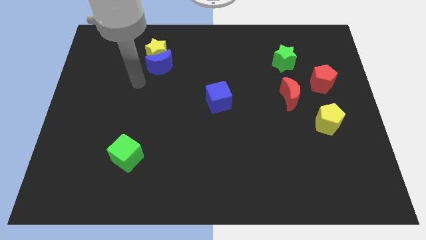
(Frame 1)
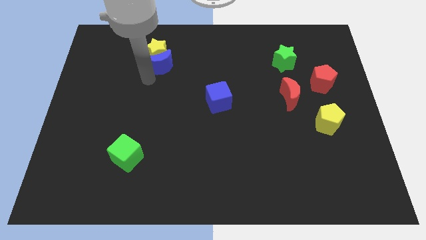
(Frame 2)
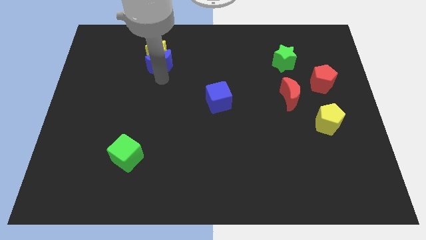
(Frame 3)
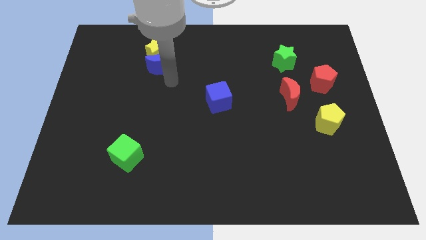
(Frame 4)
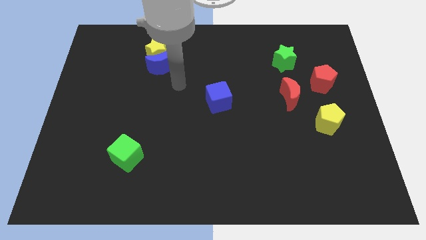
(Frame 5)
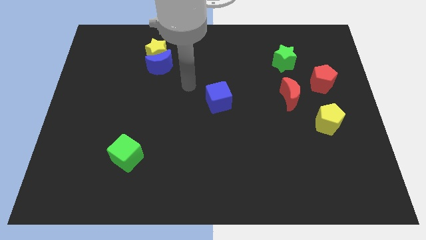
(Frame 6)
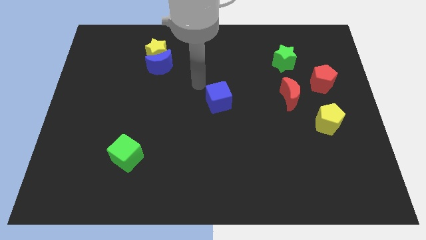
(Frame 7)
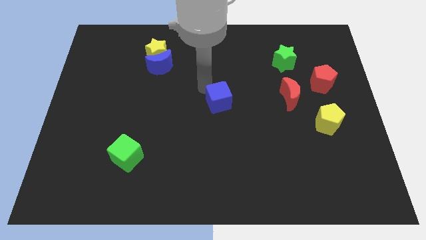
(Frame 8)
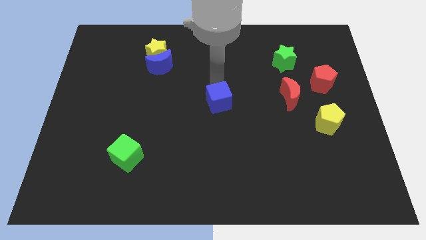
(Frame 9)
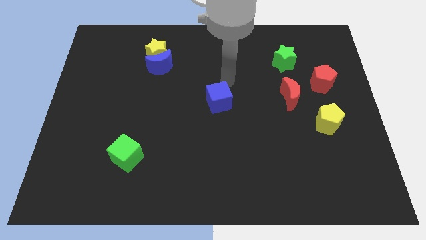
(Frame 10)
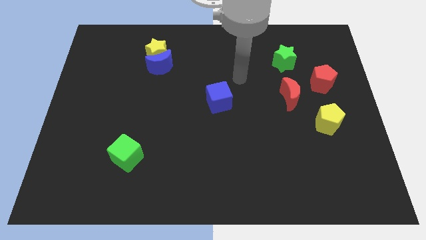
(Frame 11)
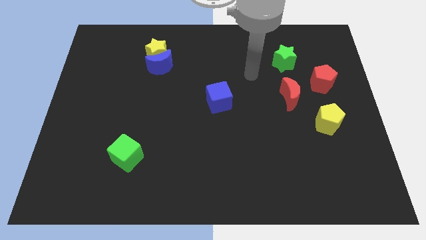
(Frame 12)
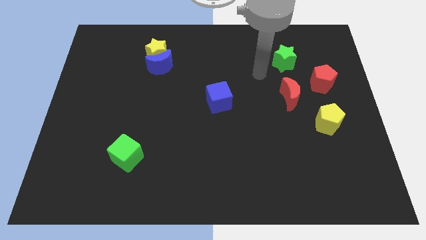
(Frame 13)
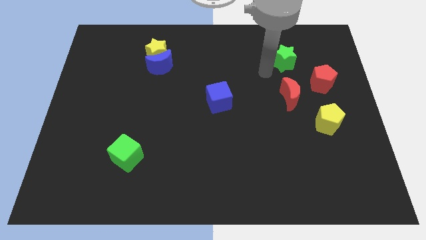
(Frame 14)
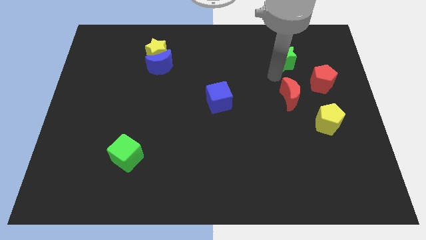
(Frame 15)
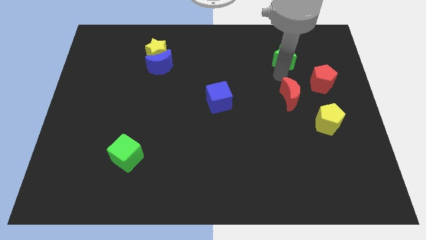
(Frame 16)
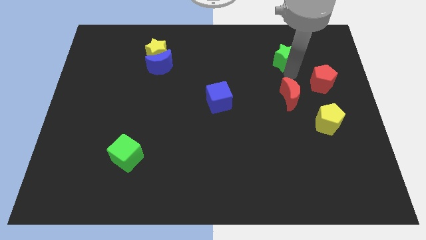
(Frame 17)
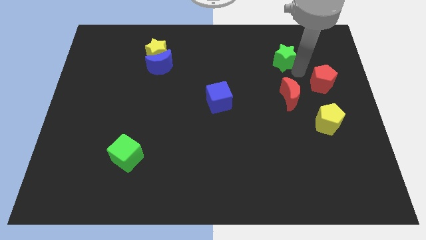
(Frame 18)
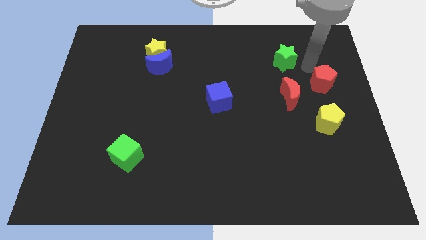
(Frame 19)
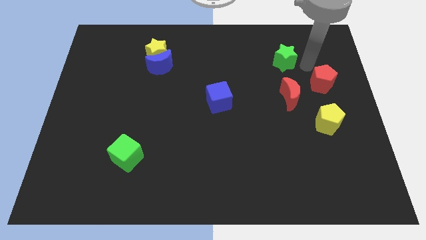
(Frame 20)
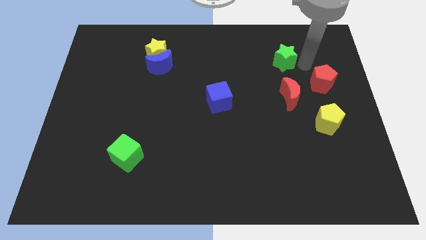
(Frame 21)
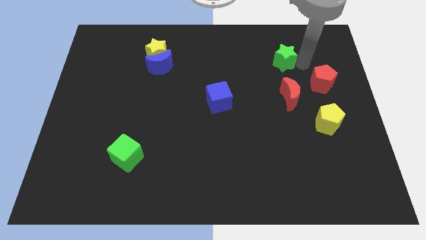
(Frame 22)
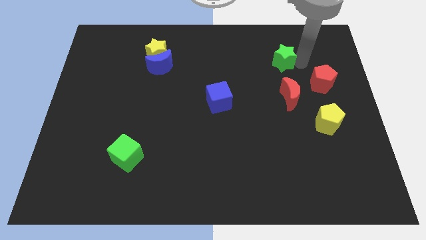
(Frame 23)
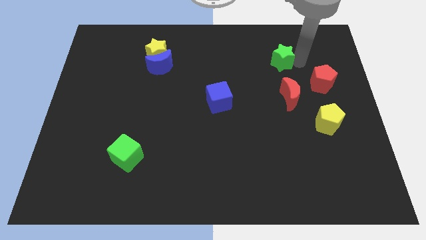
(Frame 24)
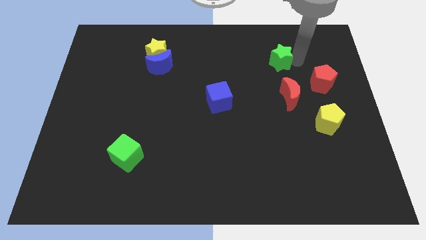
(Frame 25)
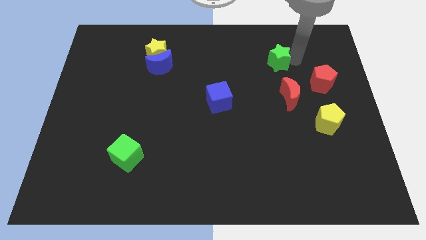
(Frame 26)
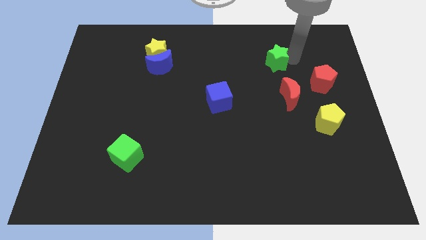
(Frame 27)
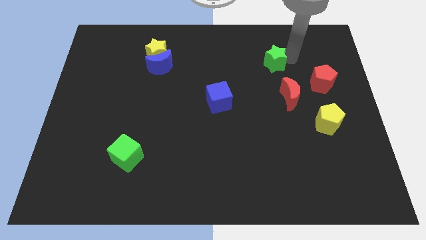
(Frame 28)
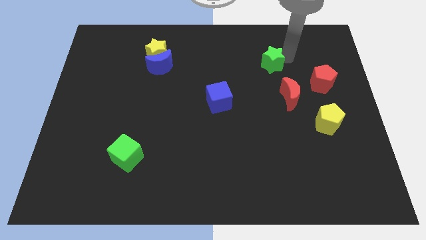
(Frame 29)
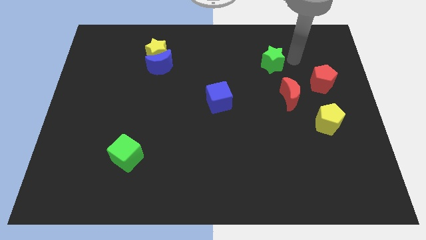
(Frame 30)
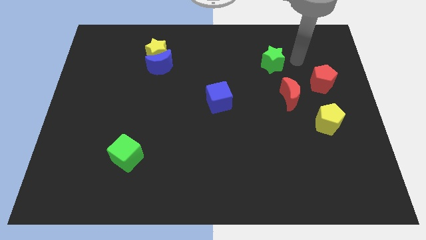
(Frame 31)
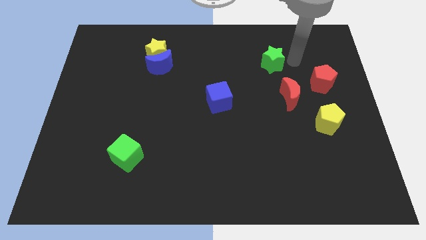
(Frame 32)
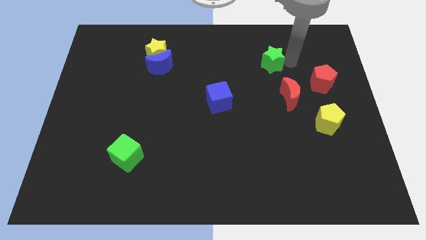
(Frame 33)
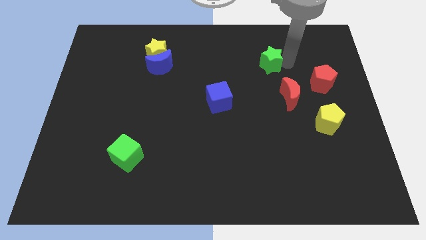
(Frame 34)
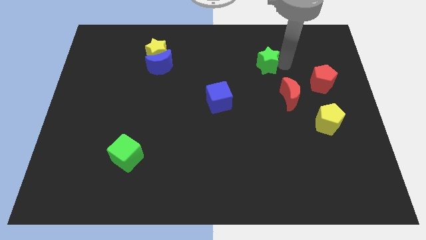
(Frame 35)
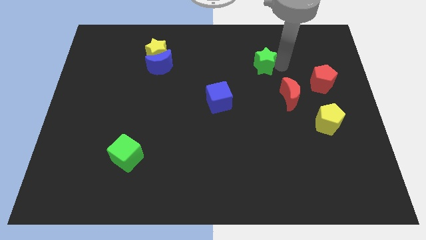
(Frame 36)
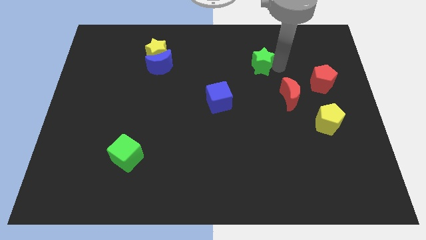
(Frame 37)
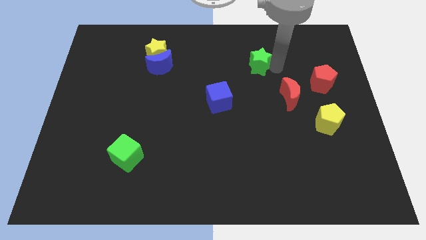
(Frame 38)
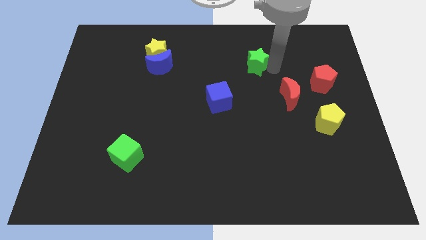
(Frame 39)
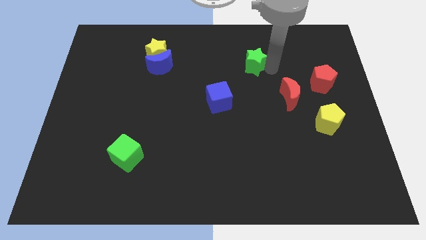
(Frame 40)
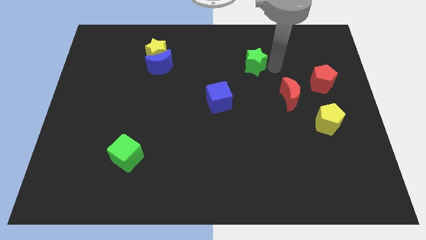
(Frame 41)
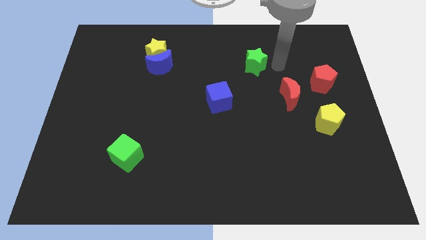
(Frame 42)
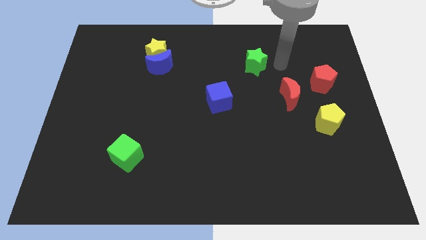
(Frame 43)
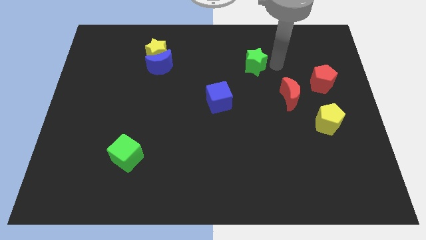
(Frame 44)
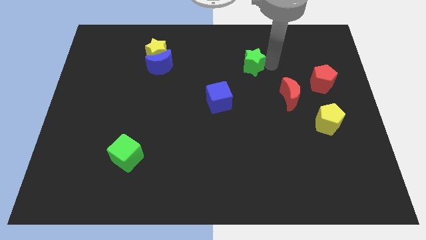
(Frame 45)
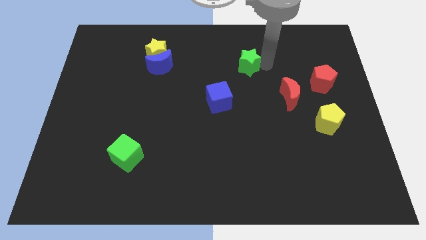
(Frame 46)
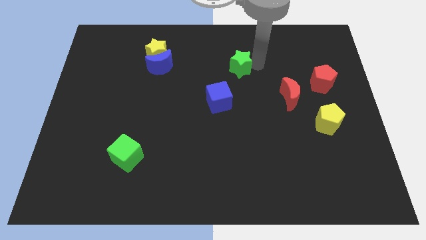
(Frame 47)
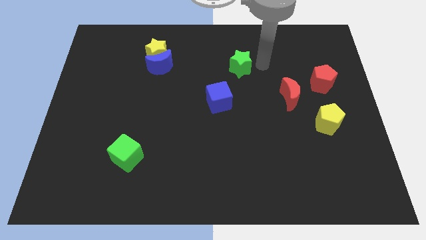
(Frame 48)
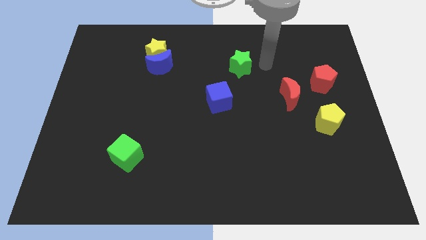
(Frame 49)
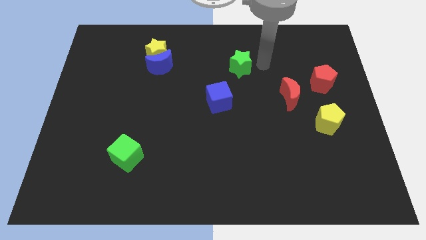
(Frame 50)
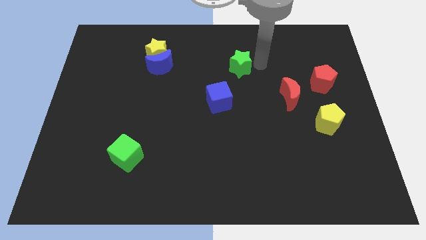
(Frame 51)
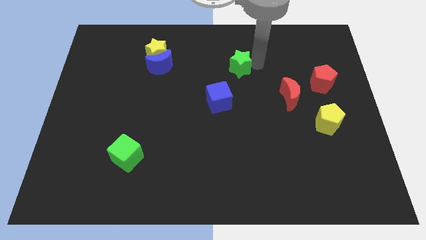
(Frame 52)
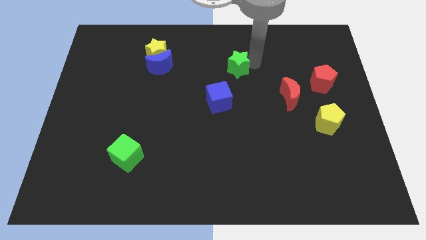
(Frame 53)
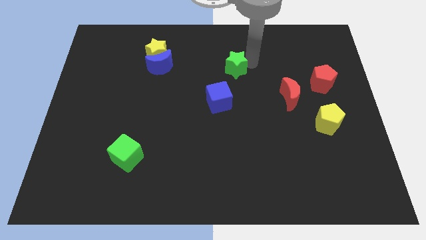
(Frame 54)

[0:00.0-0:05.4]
put the green star to the top side of the blue cube

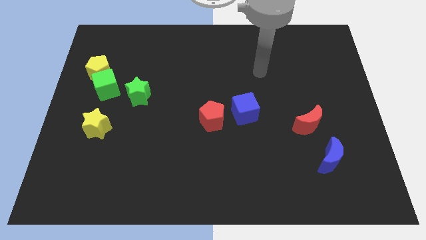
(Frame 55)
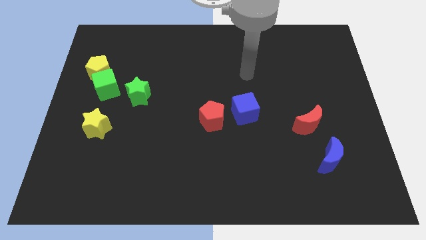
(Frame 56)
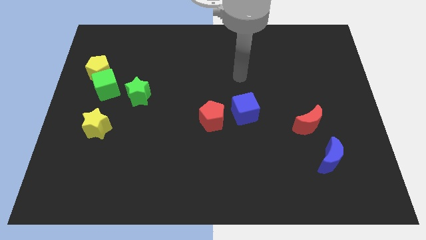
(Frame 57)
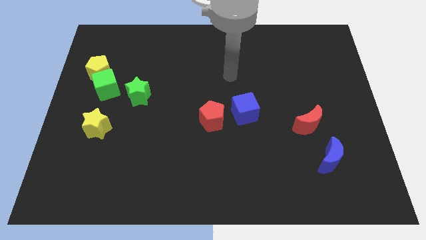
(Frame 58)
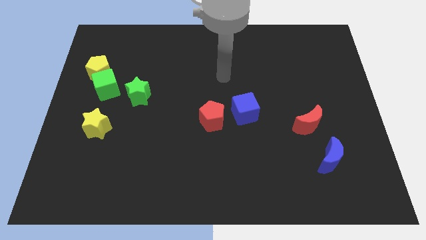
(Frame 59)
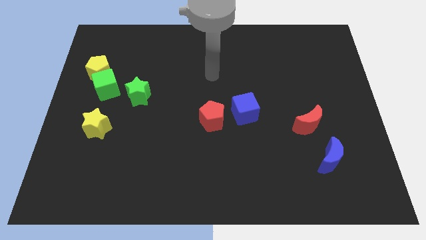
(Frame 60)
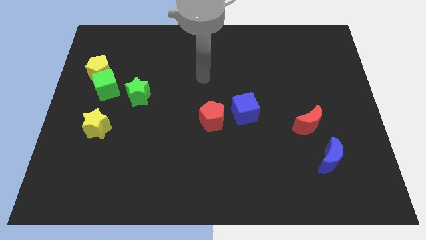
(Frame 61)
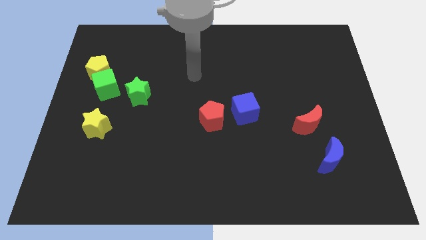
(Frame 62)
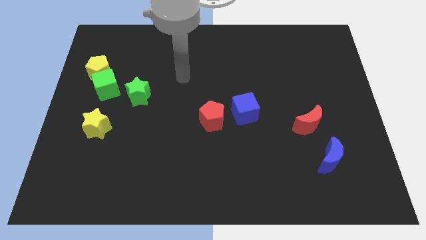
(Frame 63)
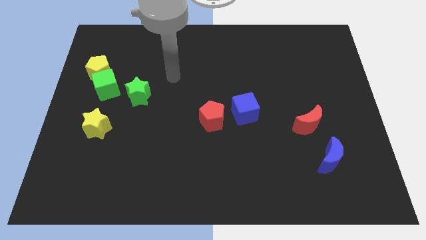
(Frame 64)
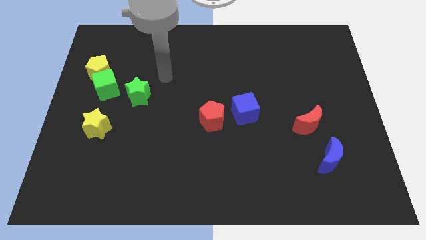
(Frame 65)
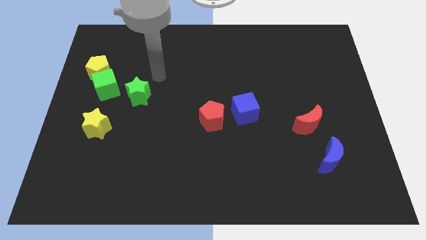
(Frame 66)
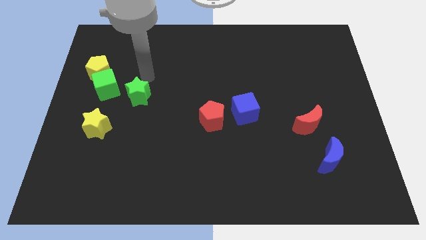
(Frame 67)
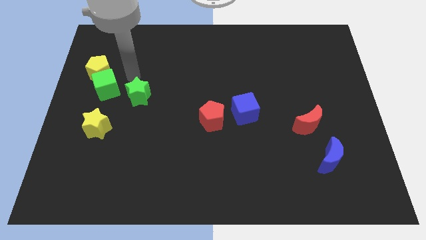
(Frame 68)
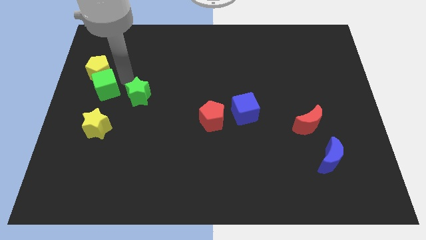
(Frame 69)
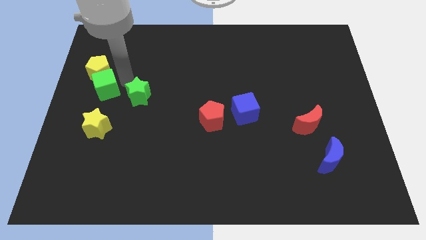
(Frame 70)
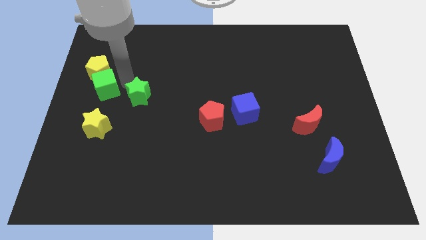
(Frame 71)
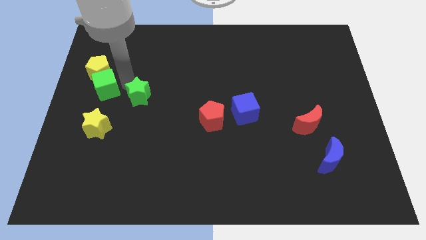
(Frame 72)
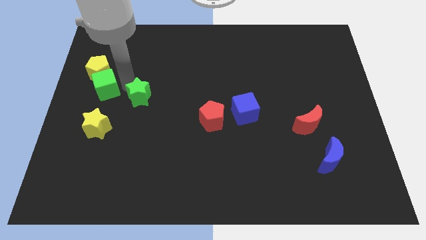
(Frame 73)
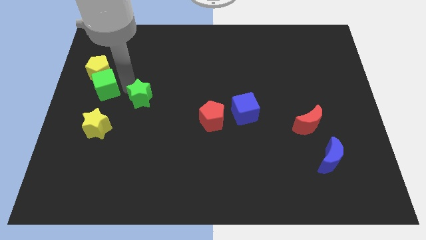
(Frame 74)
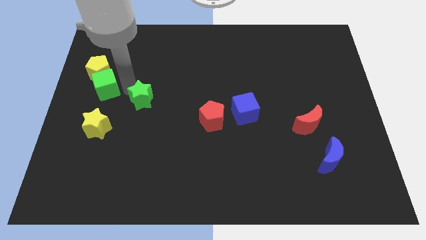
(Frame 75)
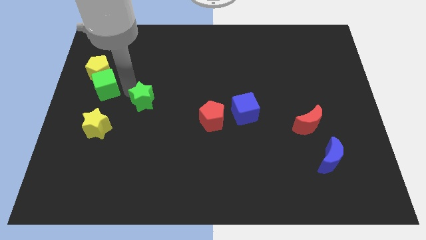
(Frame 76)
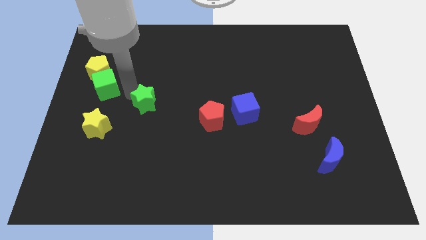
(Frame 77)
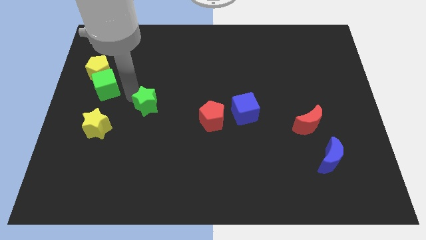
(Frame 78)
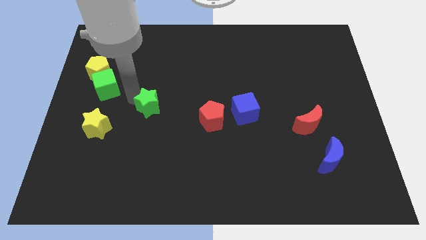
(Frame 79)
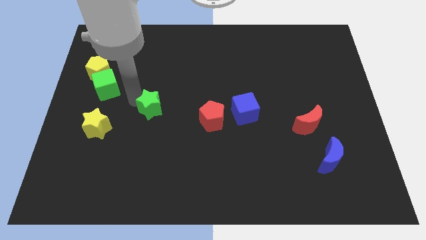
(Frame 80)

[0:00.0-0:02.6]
push the green star to the left side of the red pentagon
